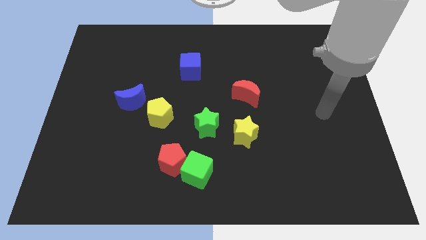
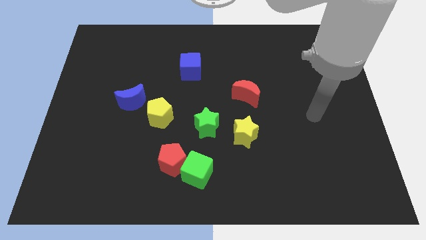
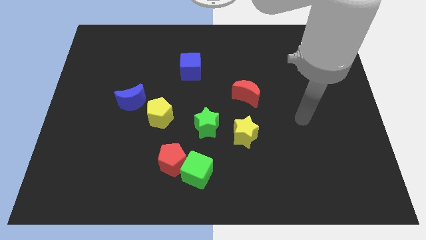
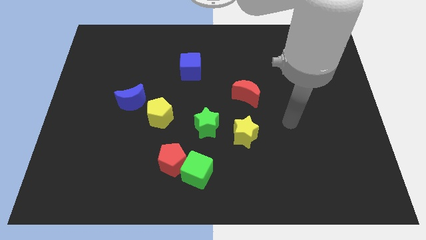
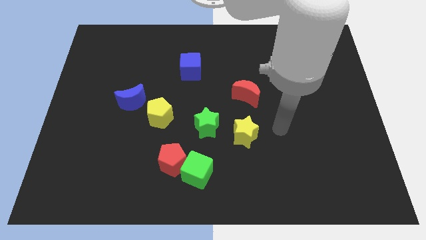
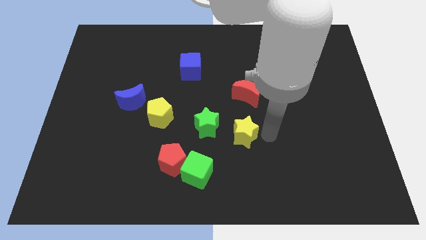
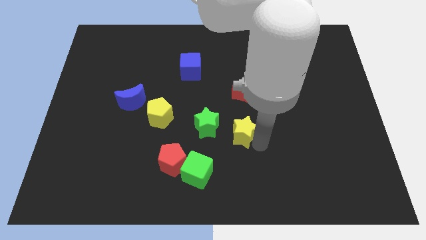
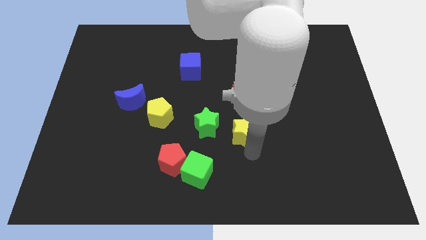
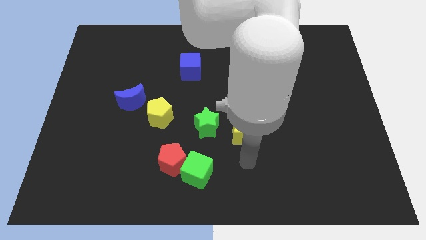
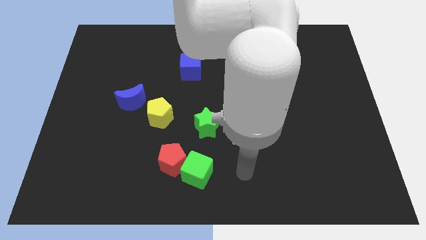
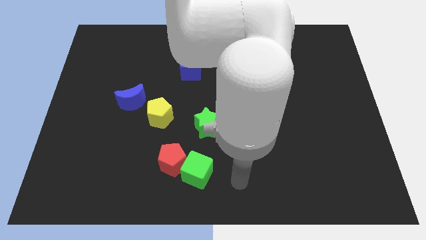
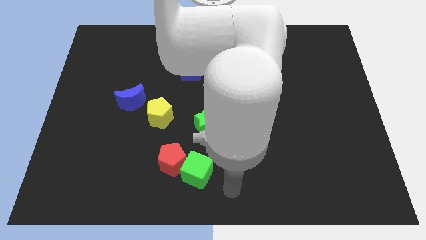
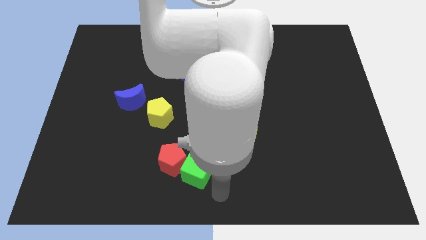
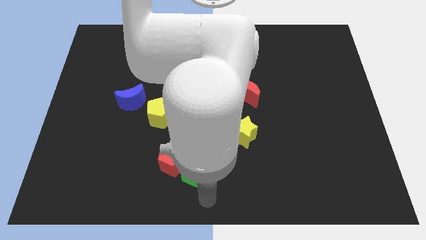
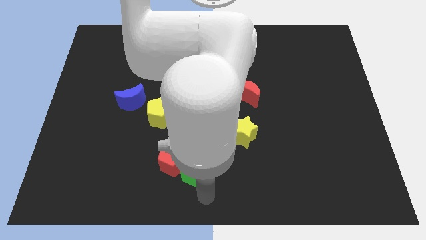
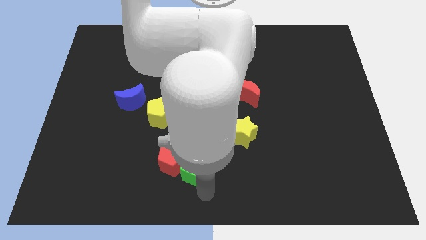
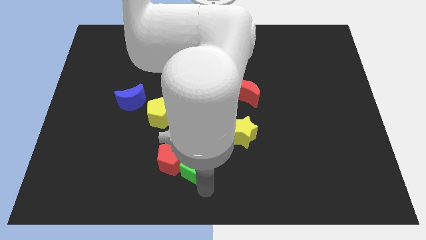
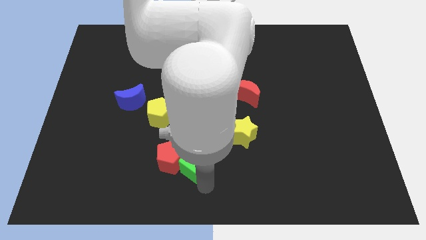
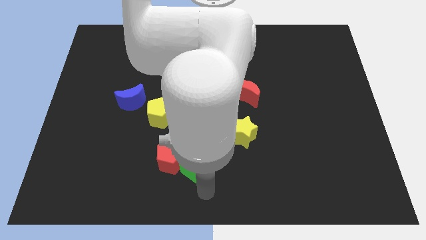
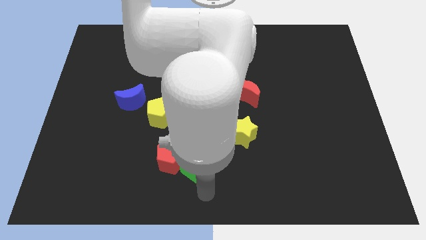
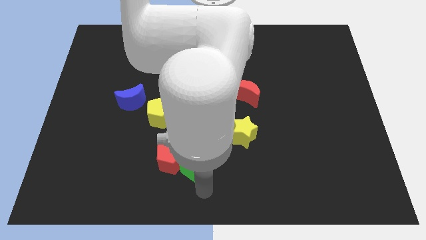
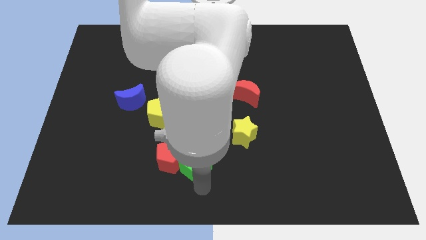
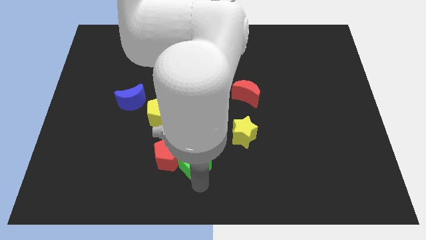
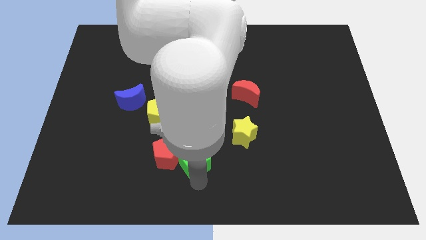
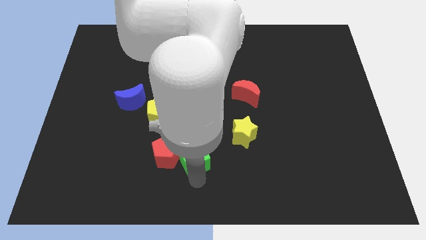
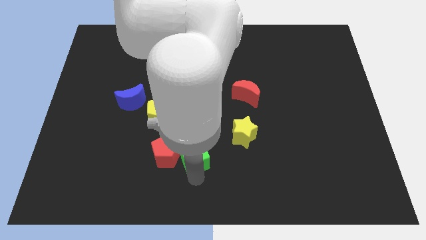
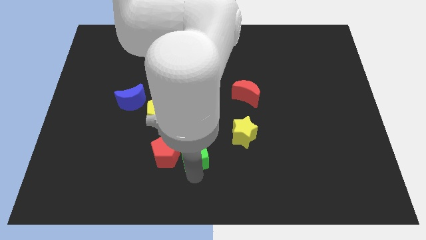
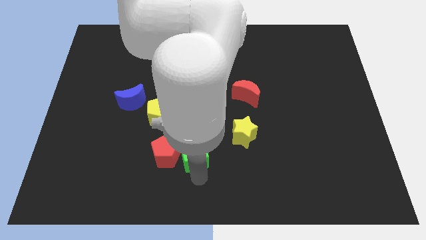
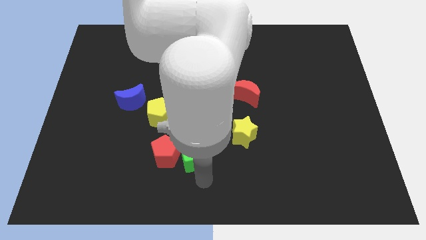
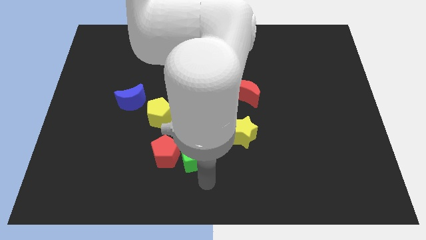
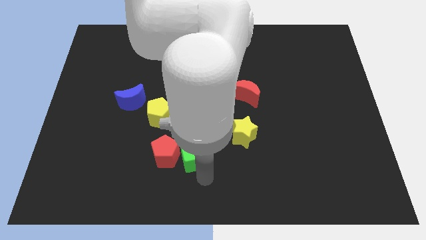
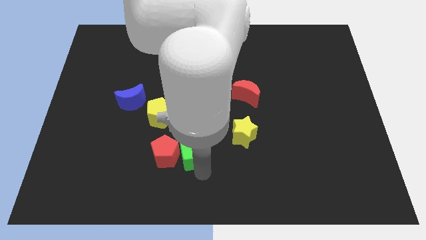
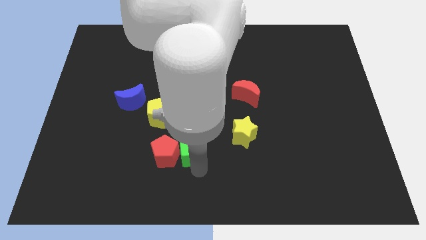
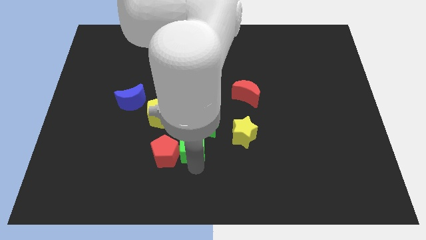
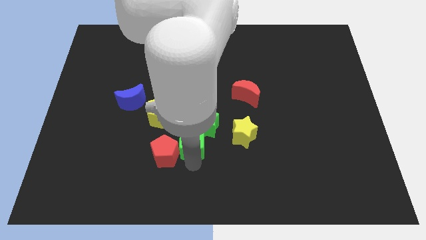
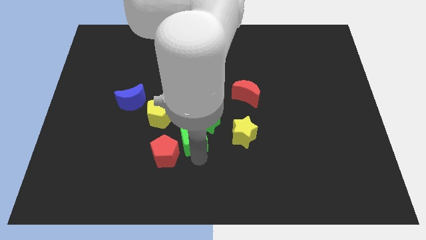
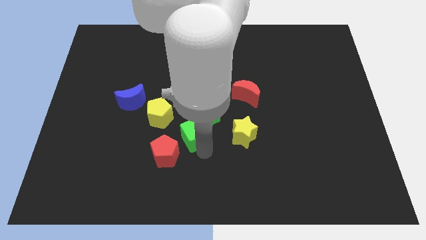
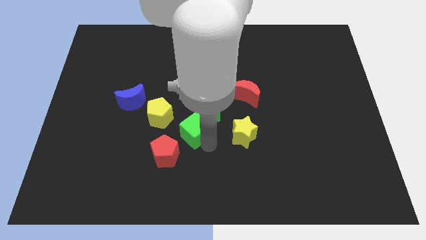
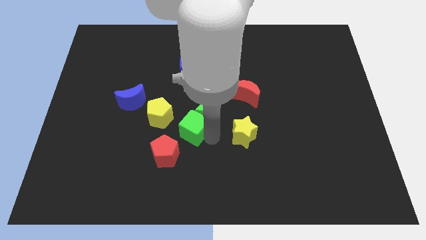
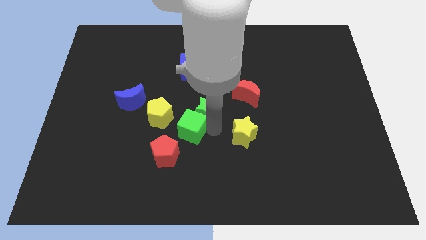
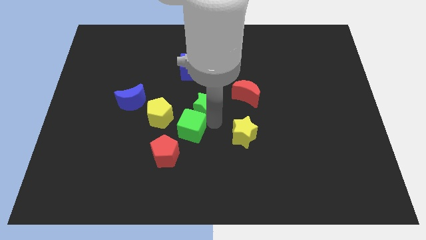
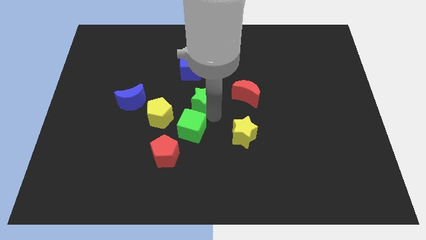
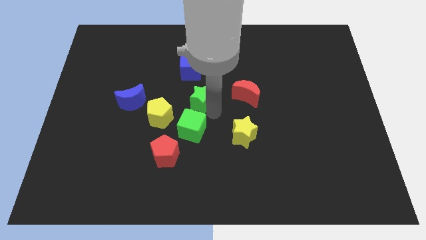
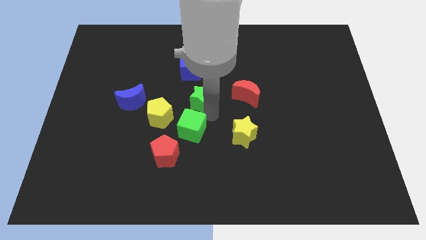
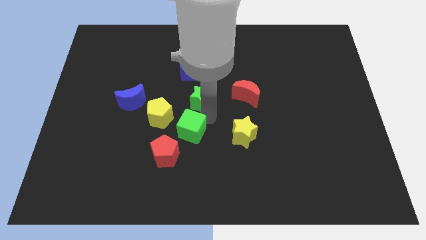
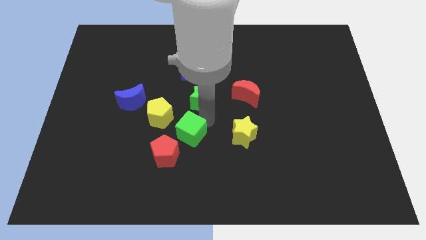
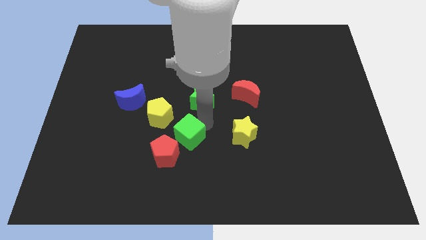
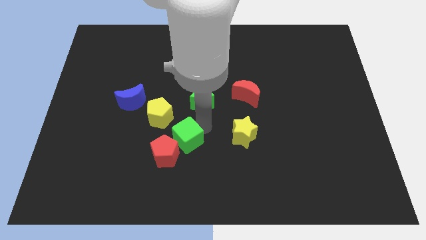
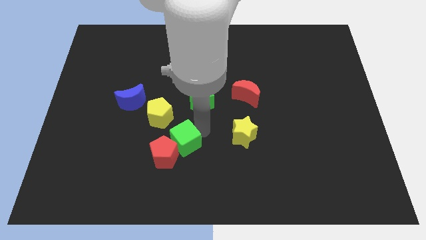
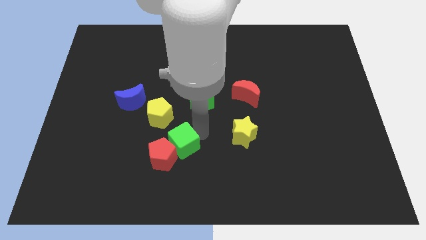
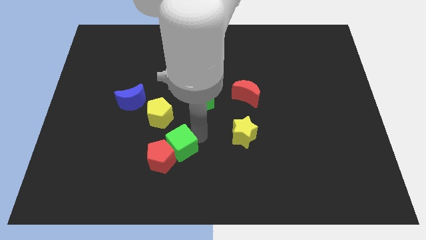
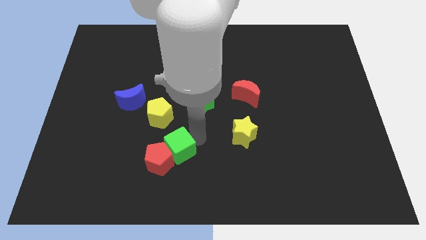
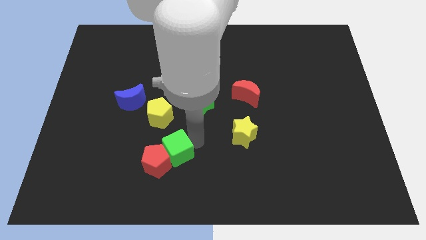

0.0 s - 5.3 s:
slide the green cube to the bottom of the yellow pentagon

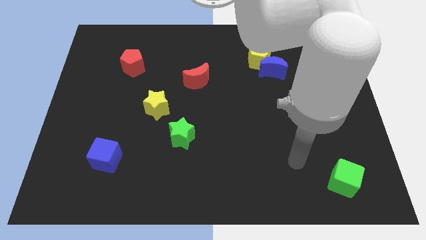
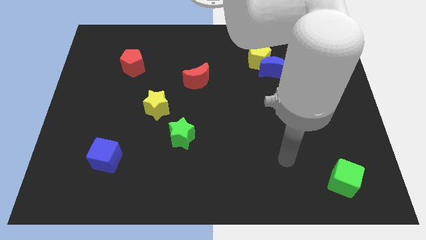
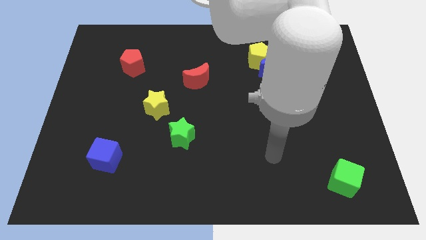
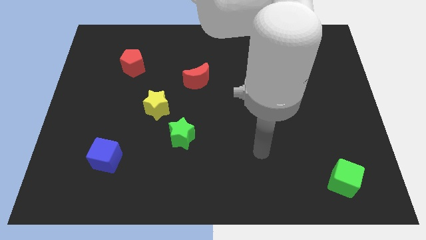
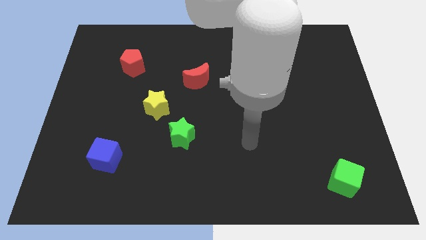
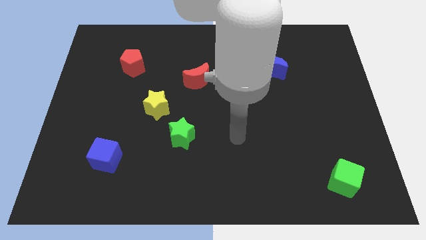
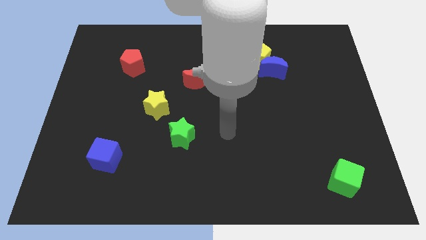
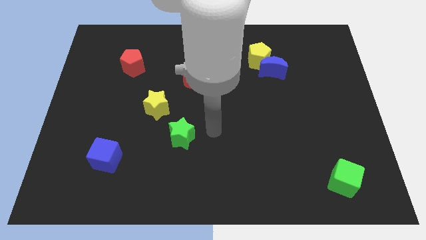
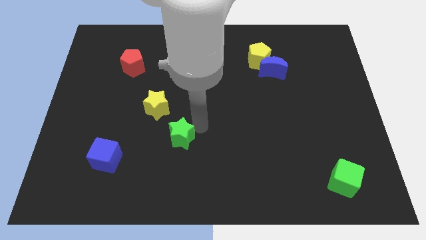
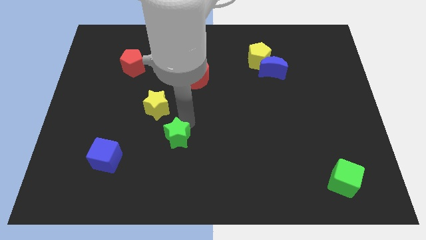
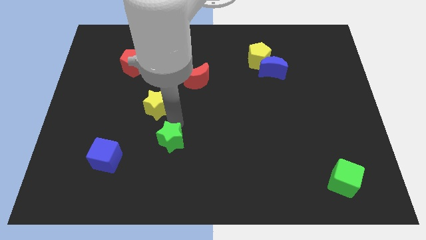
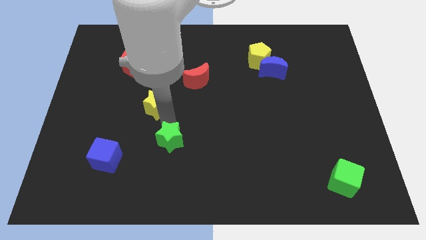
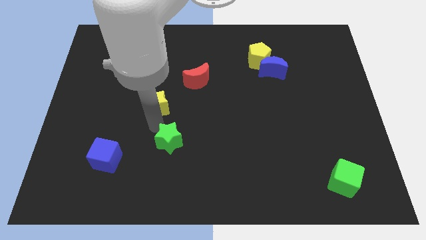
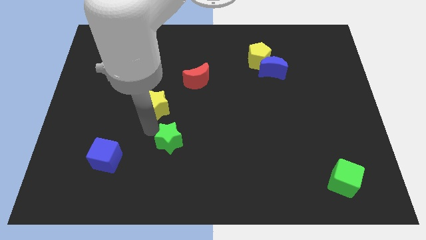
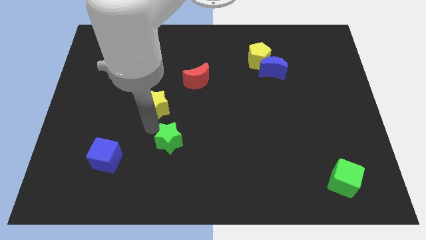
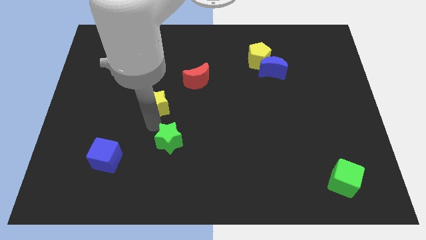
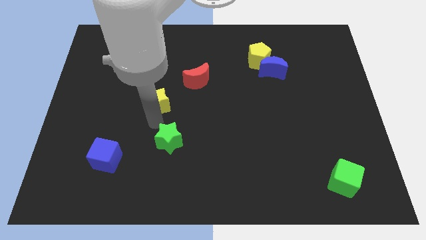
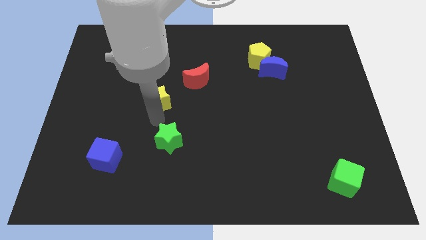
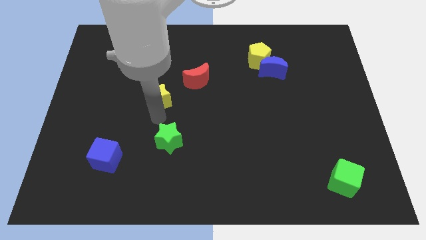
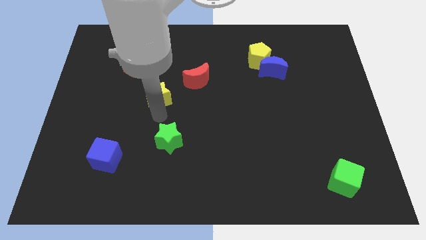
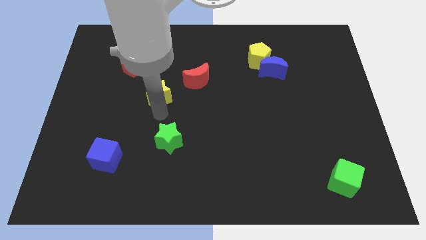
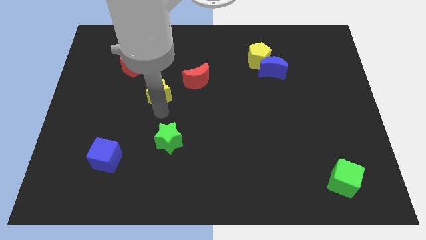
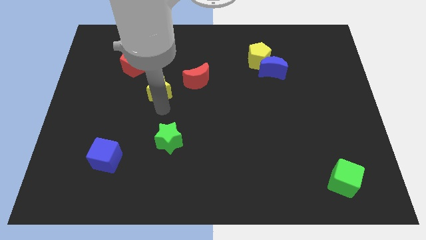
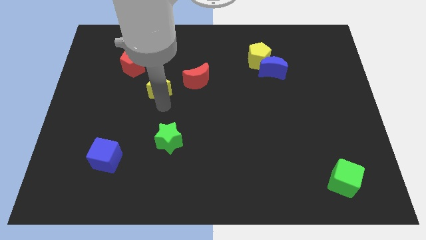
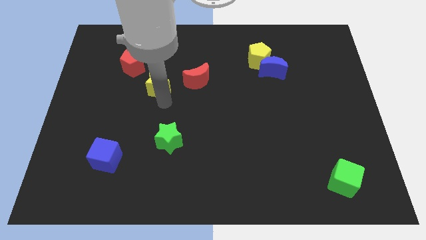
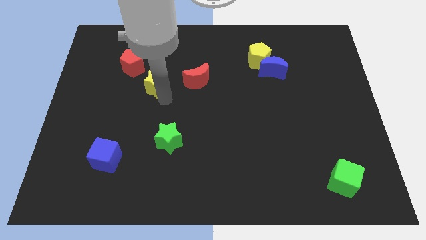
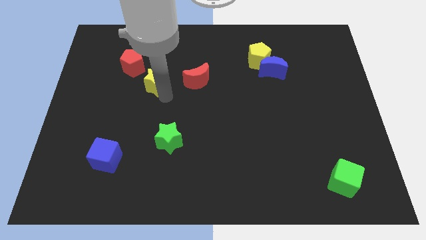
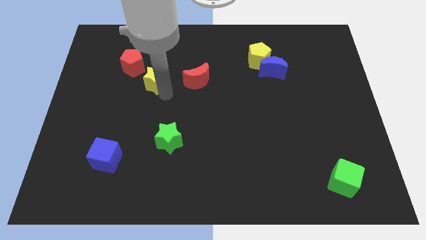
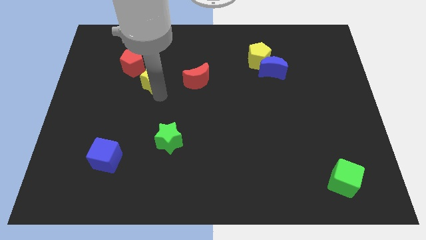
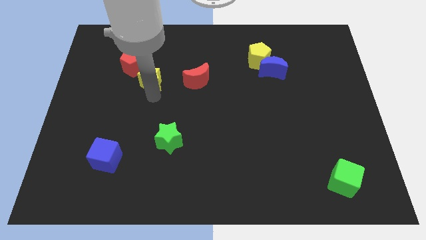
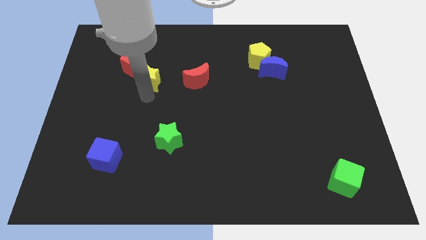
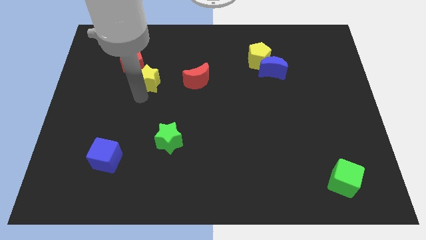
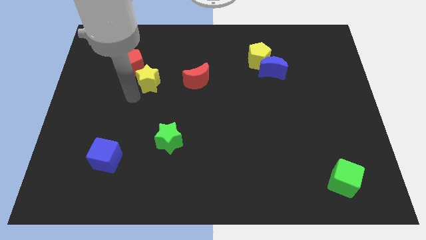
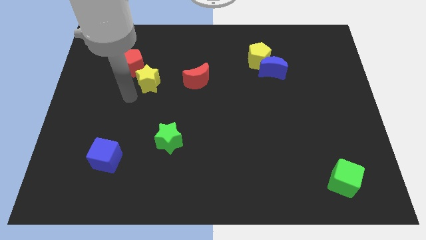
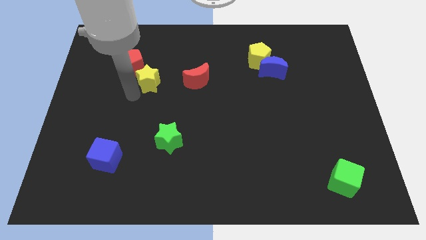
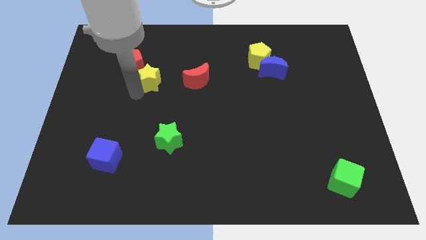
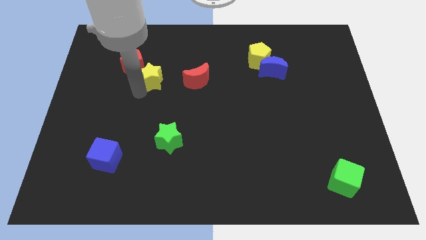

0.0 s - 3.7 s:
push the yellow star just right of the red pentagon
